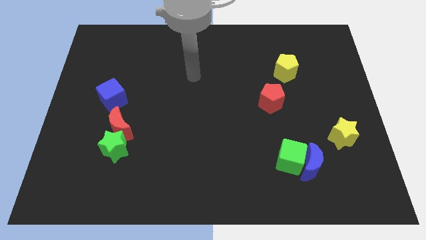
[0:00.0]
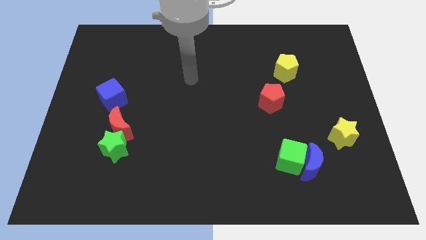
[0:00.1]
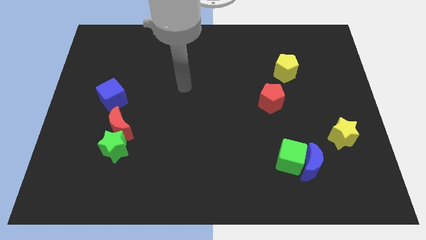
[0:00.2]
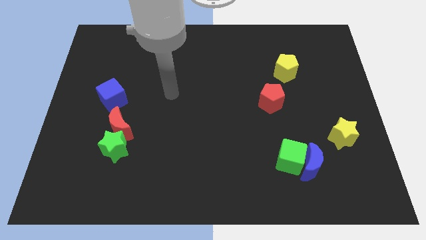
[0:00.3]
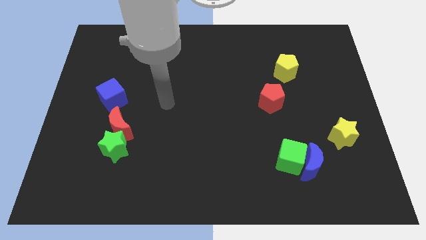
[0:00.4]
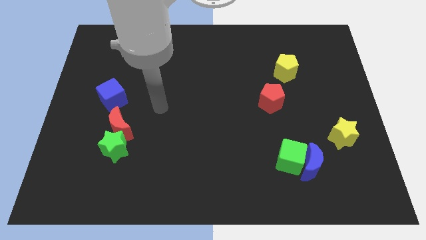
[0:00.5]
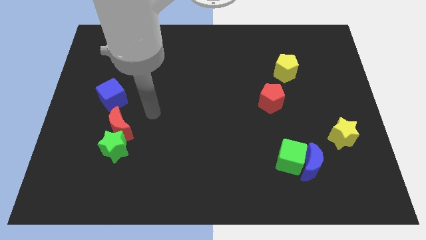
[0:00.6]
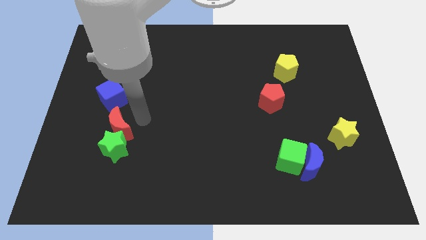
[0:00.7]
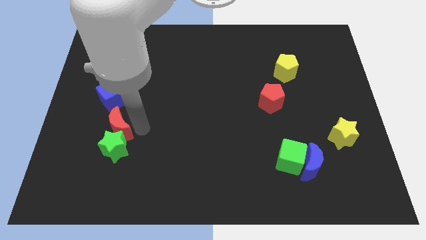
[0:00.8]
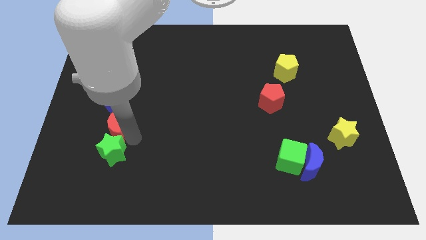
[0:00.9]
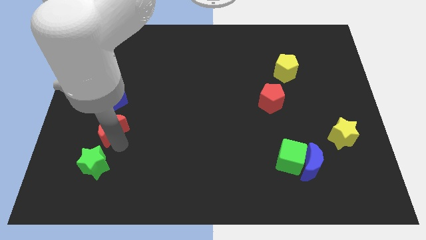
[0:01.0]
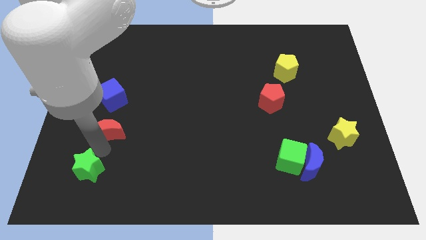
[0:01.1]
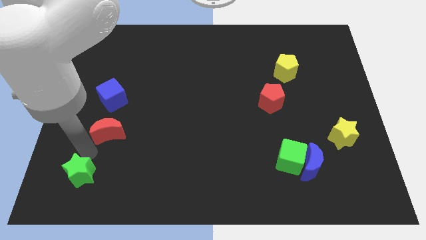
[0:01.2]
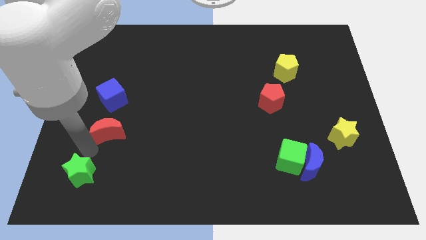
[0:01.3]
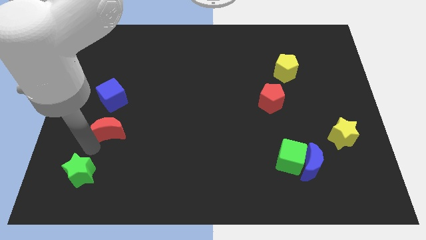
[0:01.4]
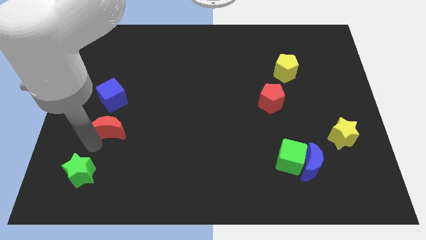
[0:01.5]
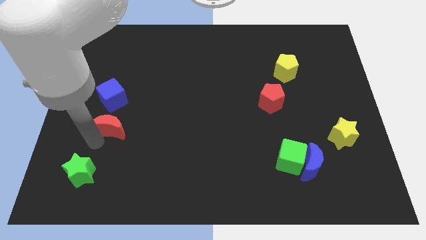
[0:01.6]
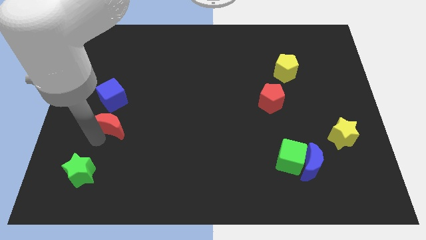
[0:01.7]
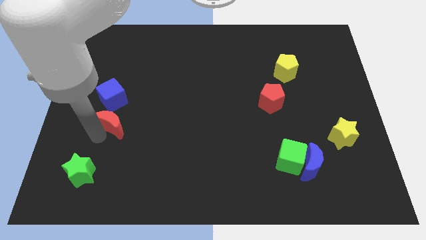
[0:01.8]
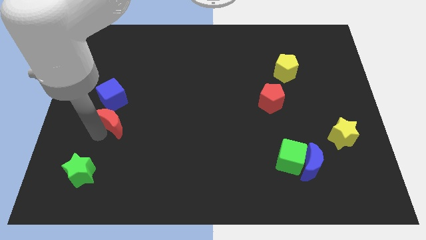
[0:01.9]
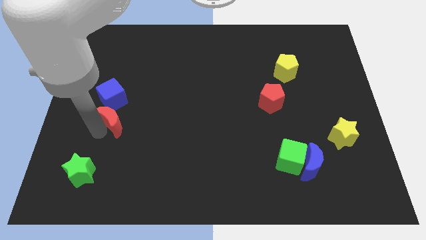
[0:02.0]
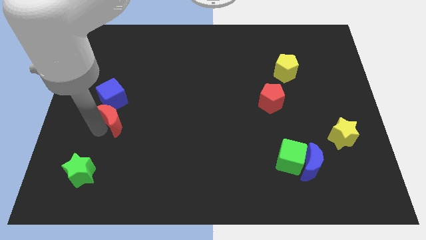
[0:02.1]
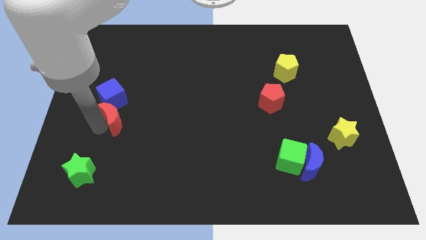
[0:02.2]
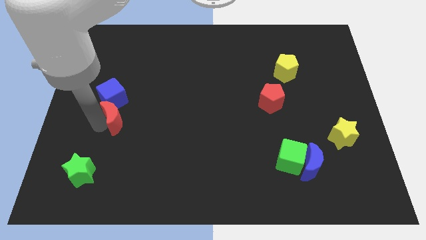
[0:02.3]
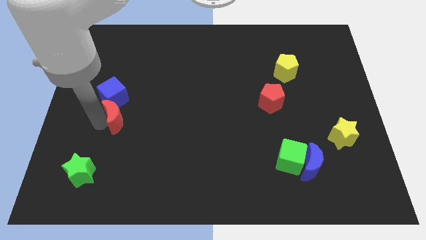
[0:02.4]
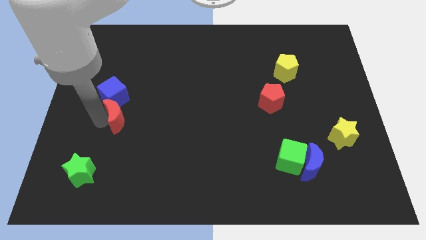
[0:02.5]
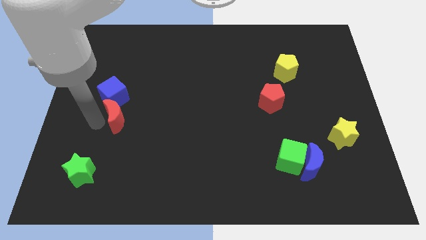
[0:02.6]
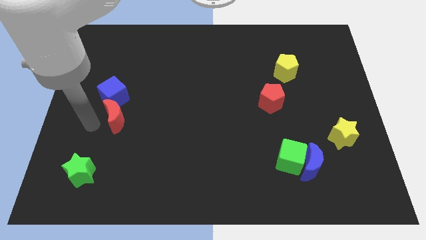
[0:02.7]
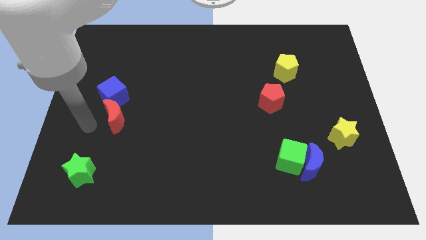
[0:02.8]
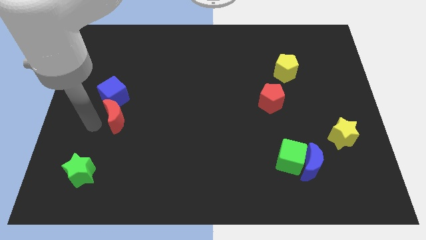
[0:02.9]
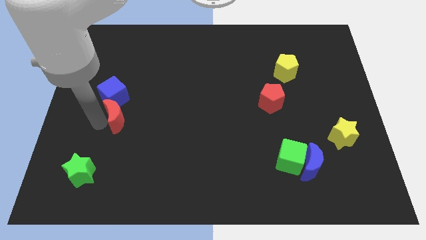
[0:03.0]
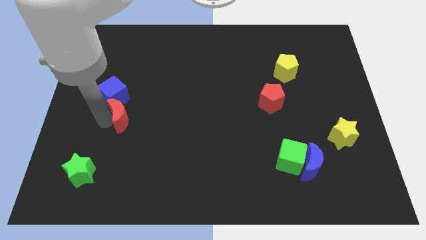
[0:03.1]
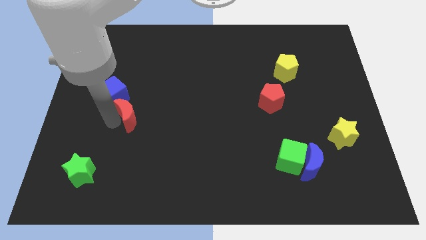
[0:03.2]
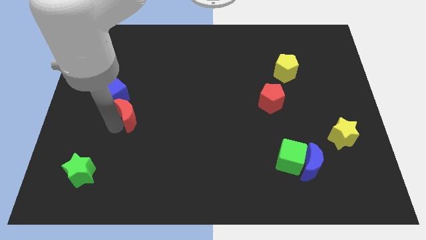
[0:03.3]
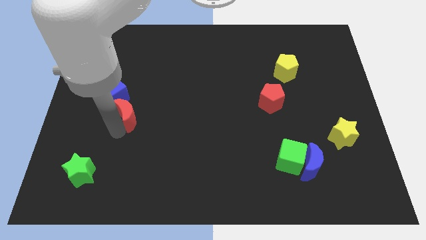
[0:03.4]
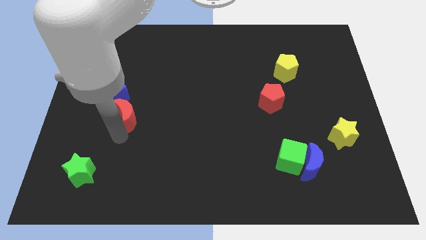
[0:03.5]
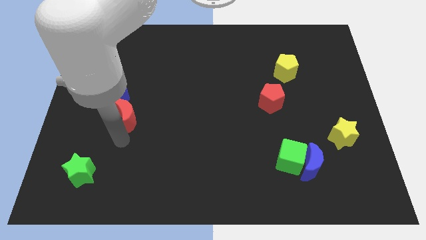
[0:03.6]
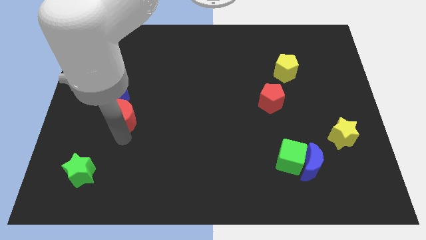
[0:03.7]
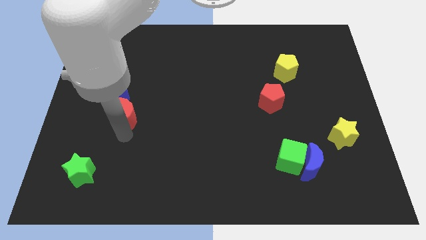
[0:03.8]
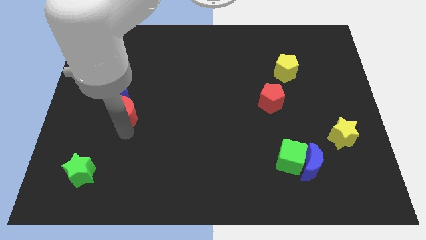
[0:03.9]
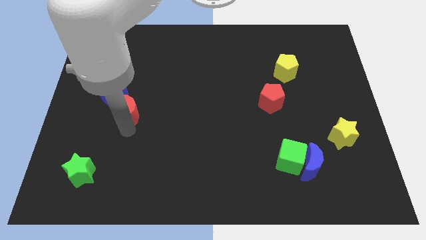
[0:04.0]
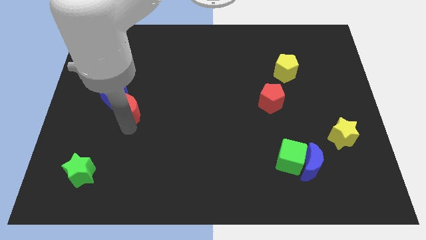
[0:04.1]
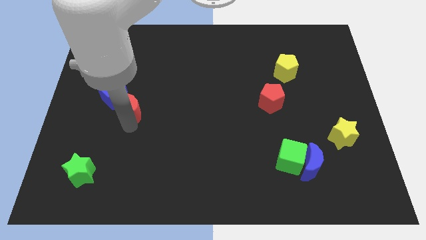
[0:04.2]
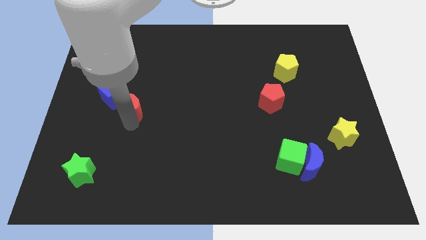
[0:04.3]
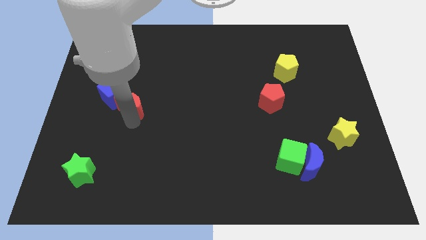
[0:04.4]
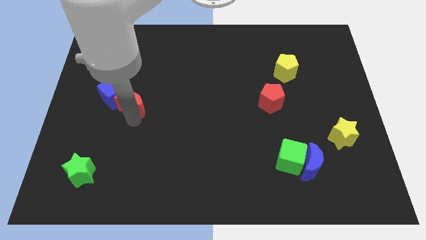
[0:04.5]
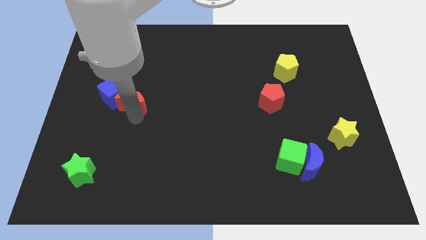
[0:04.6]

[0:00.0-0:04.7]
slightly push the red moon upwards

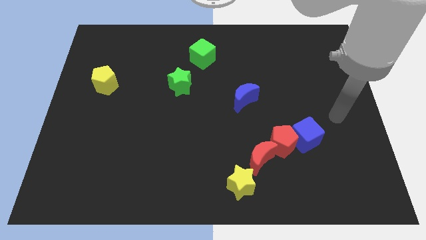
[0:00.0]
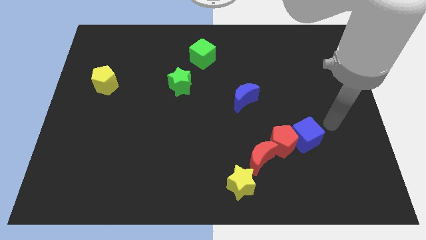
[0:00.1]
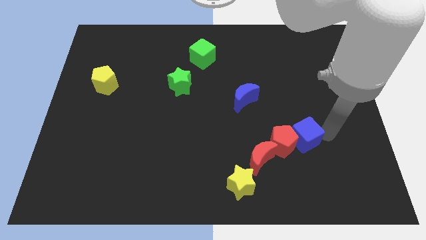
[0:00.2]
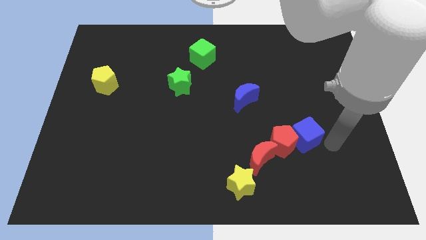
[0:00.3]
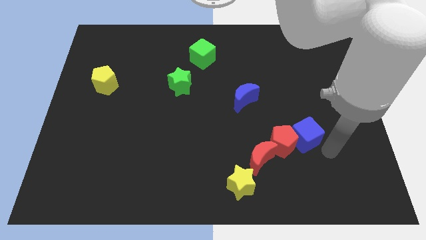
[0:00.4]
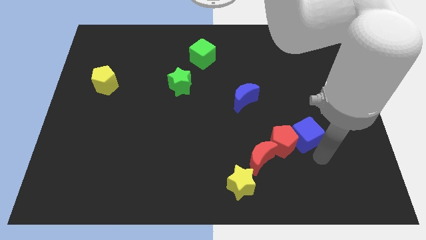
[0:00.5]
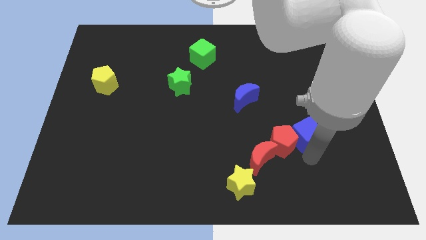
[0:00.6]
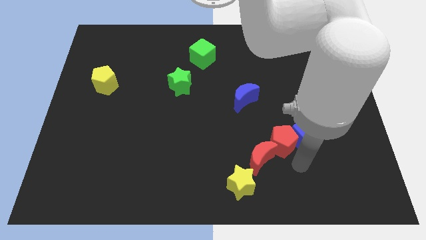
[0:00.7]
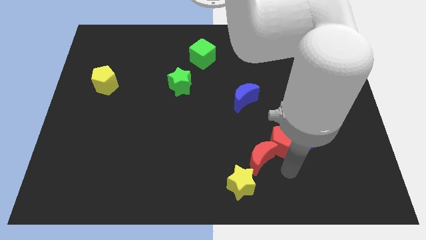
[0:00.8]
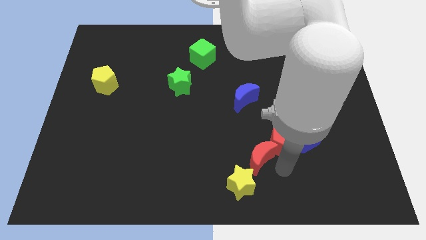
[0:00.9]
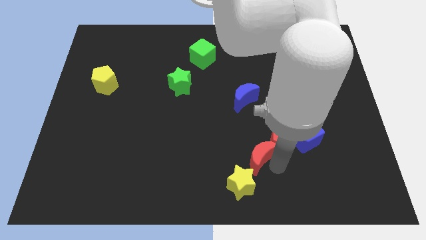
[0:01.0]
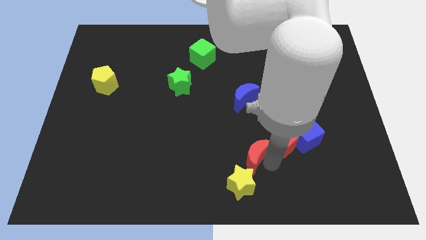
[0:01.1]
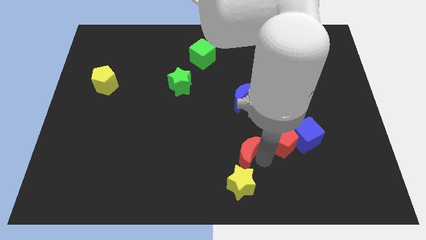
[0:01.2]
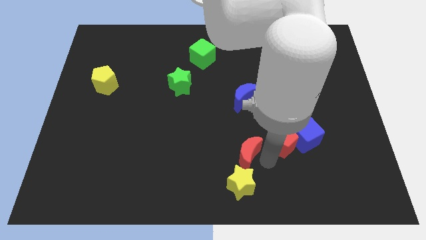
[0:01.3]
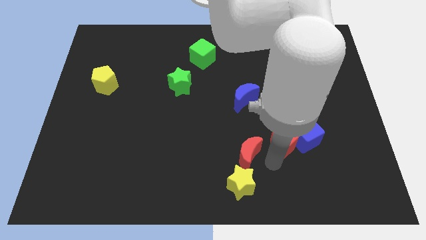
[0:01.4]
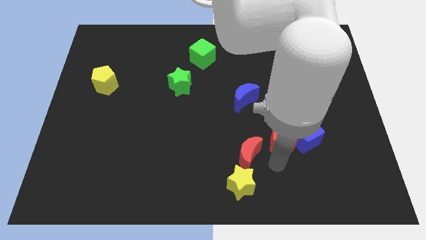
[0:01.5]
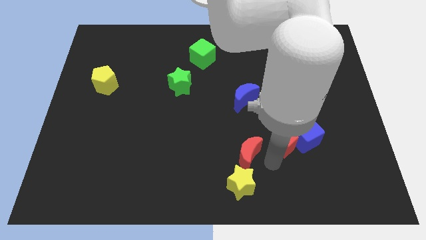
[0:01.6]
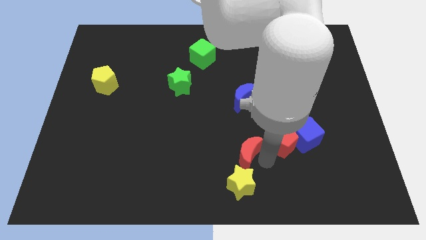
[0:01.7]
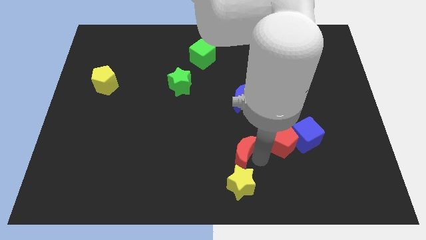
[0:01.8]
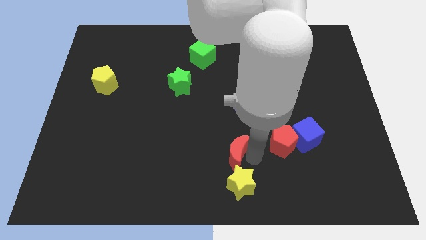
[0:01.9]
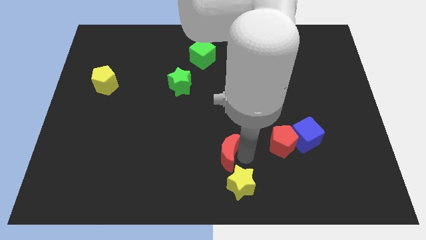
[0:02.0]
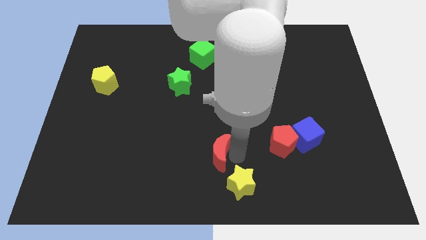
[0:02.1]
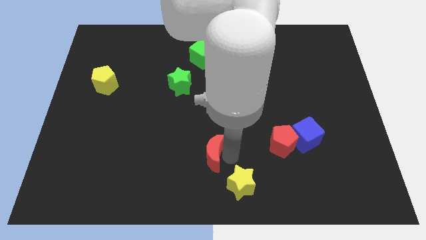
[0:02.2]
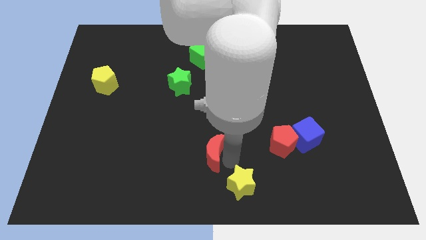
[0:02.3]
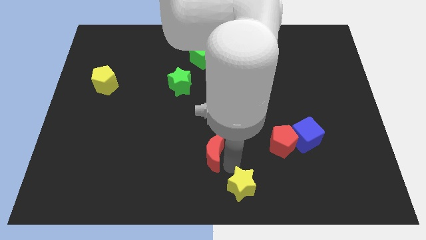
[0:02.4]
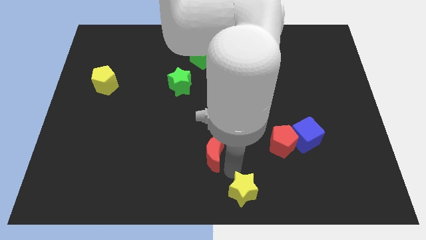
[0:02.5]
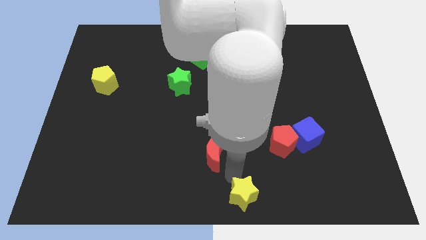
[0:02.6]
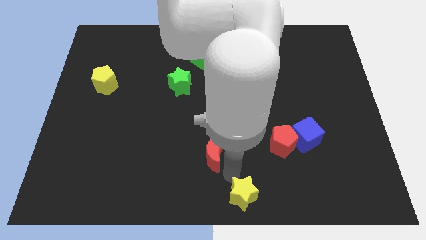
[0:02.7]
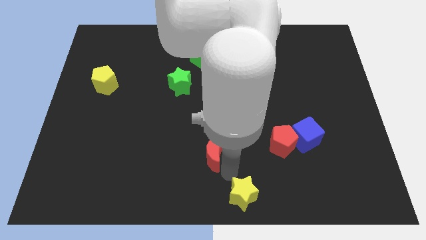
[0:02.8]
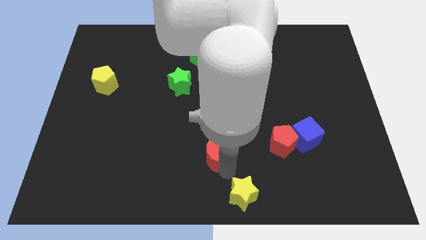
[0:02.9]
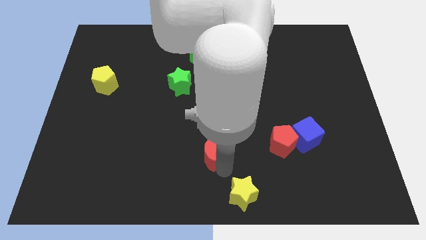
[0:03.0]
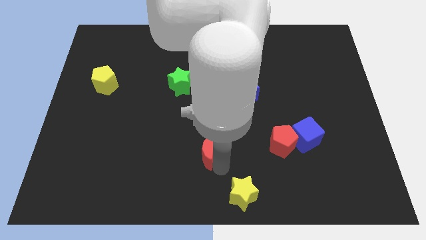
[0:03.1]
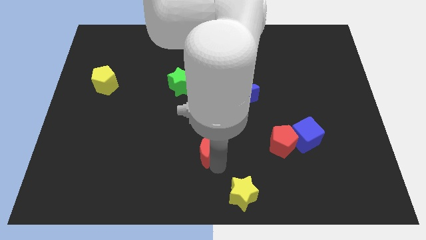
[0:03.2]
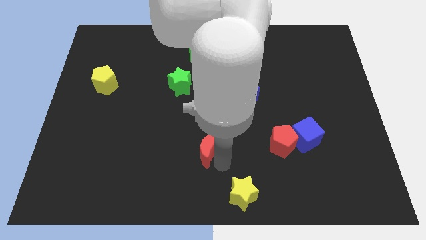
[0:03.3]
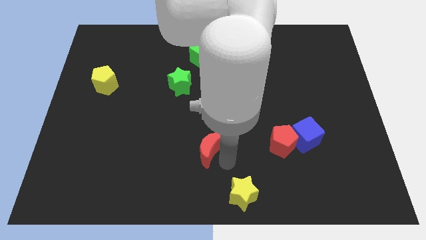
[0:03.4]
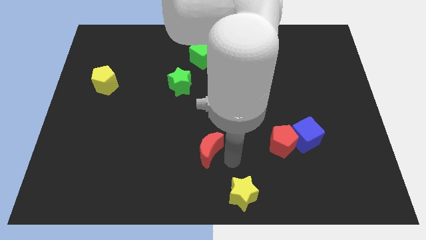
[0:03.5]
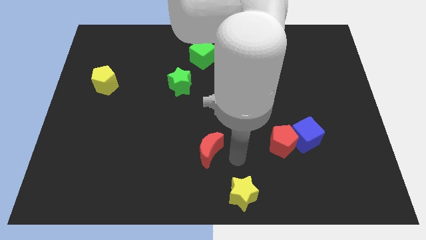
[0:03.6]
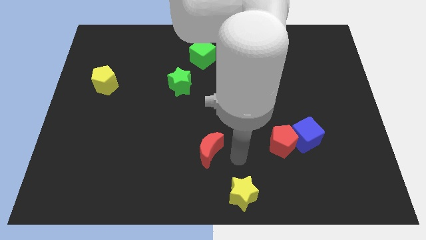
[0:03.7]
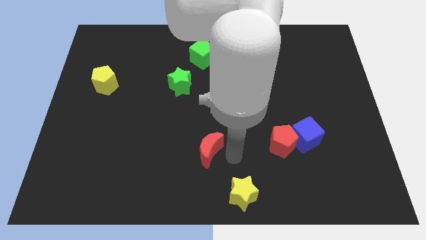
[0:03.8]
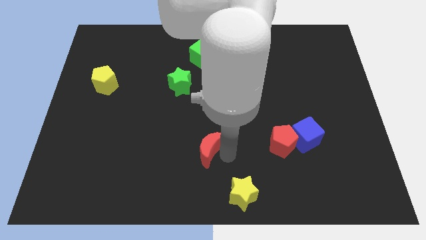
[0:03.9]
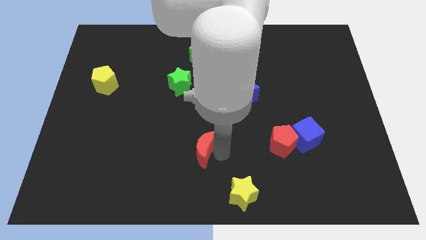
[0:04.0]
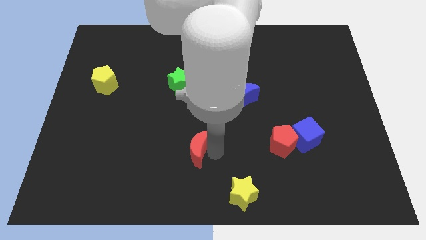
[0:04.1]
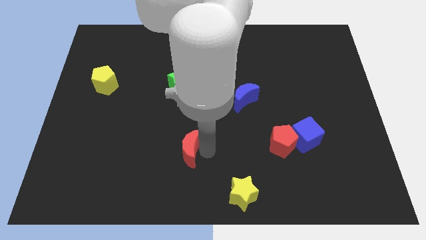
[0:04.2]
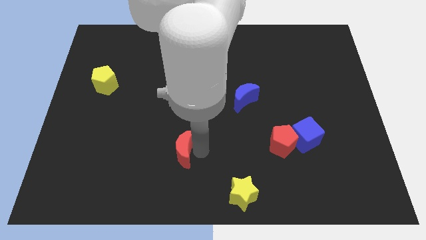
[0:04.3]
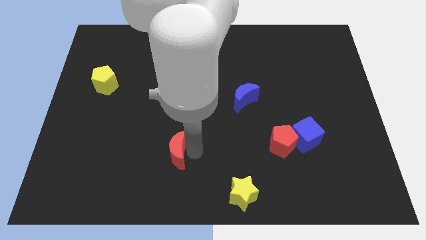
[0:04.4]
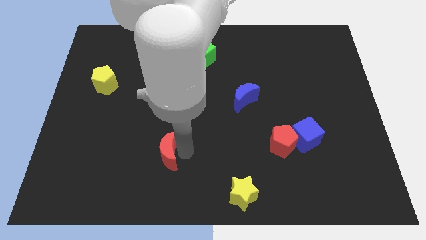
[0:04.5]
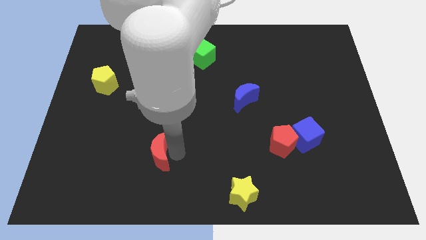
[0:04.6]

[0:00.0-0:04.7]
push the red moon left
